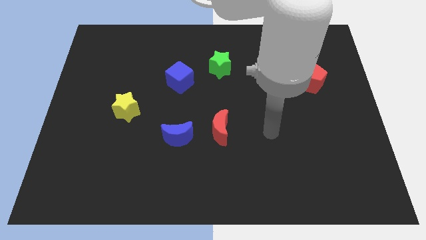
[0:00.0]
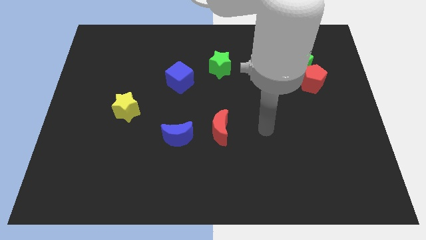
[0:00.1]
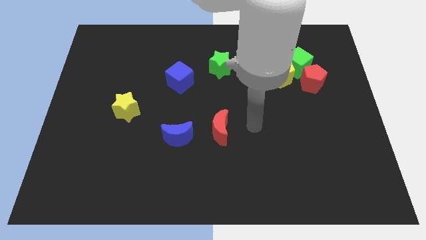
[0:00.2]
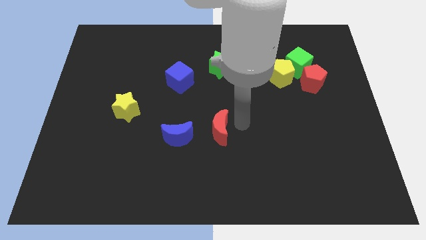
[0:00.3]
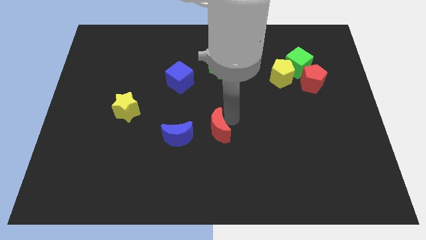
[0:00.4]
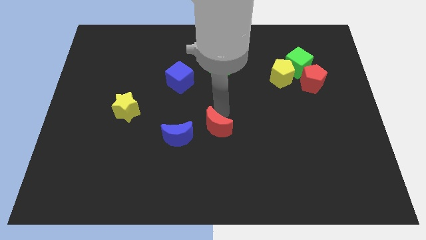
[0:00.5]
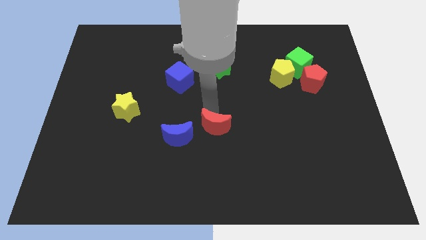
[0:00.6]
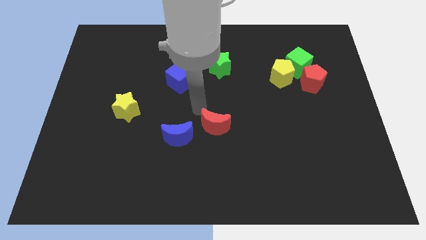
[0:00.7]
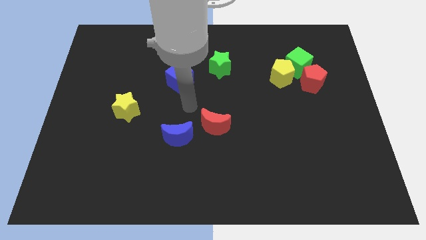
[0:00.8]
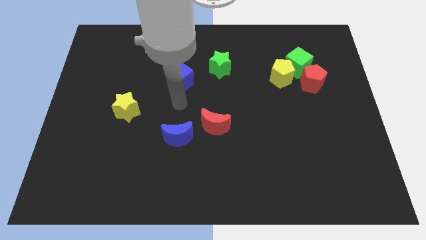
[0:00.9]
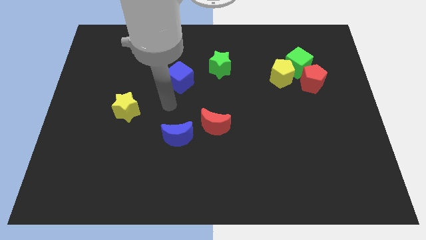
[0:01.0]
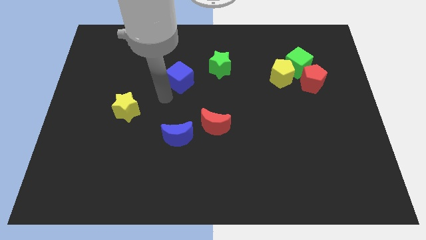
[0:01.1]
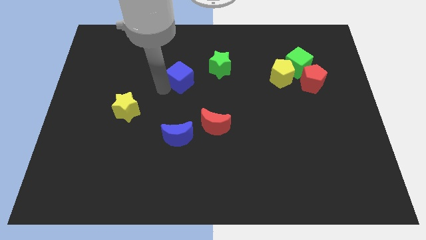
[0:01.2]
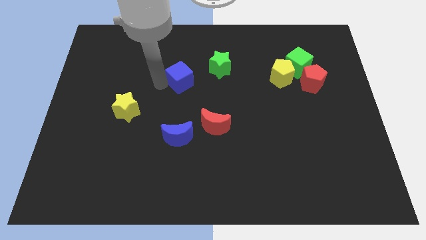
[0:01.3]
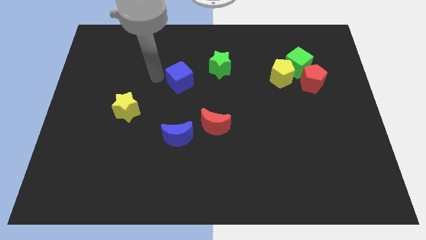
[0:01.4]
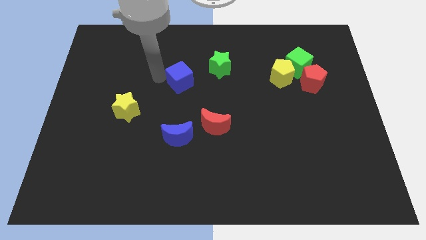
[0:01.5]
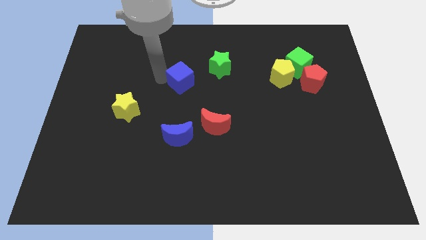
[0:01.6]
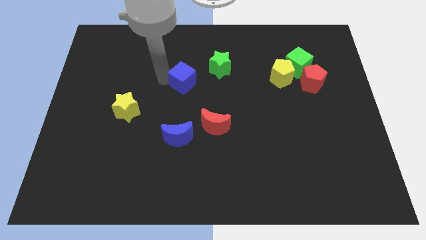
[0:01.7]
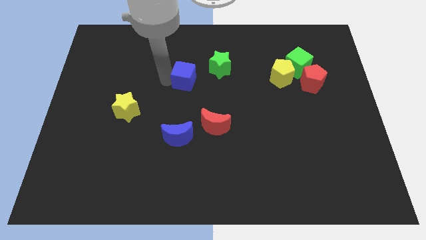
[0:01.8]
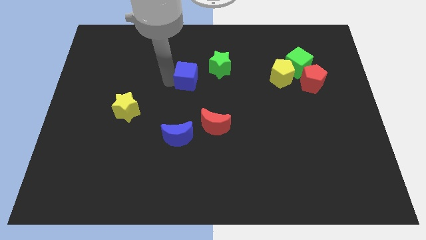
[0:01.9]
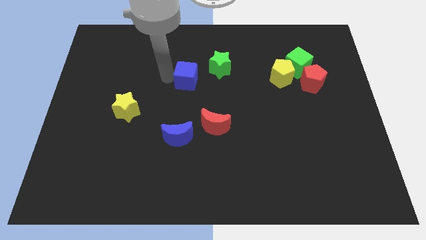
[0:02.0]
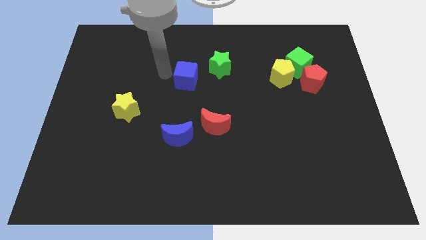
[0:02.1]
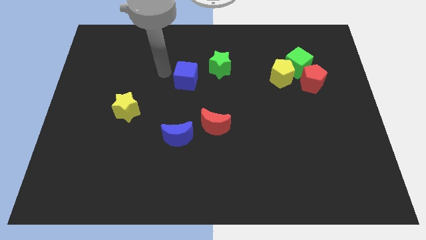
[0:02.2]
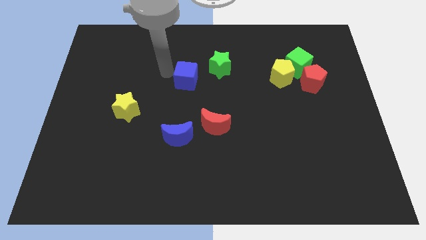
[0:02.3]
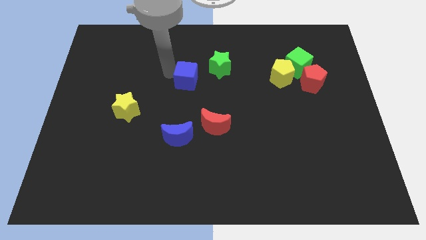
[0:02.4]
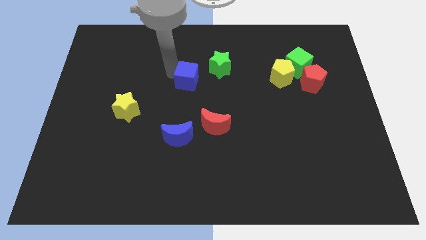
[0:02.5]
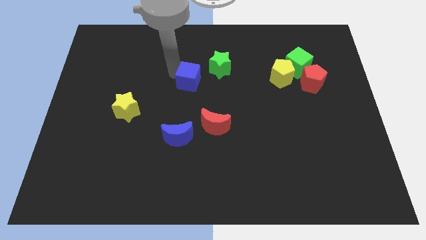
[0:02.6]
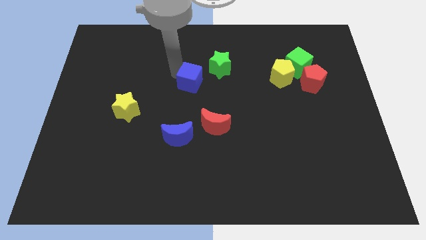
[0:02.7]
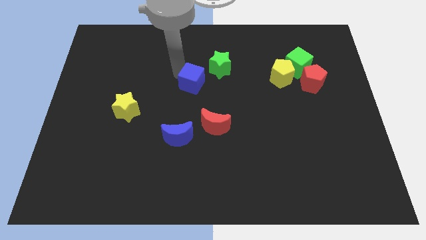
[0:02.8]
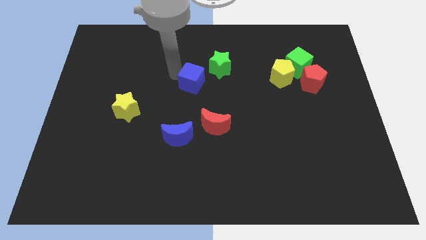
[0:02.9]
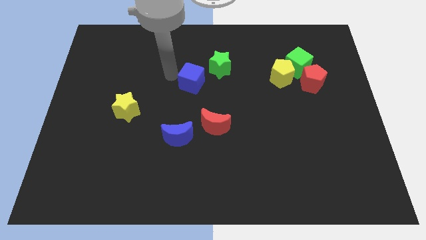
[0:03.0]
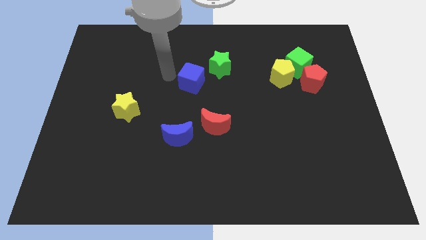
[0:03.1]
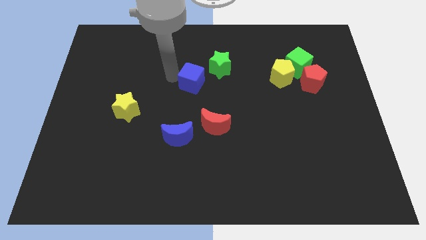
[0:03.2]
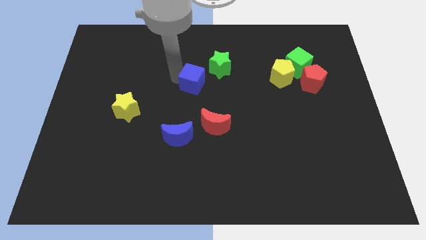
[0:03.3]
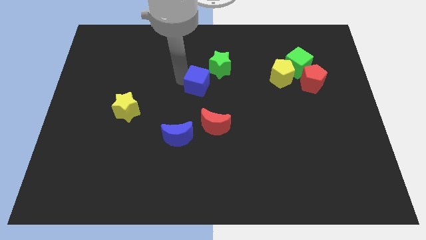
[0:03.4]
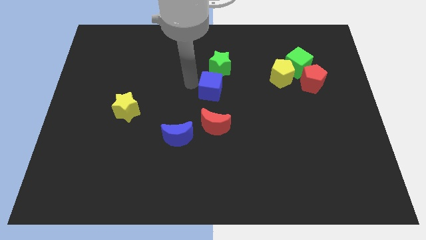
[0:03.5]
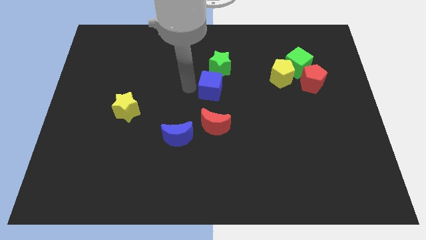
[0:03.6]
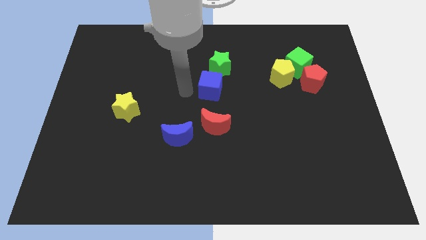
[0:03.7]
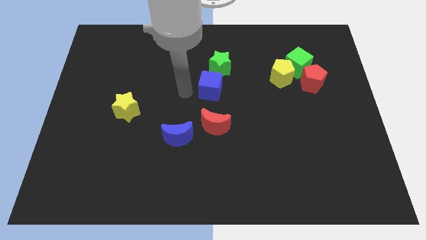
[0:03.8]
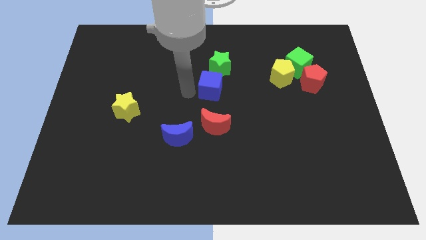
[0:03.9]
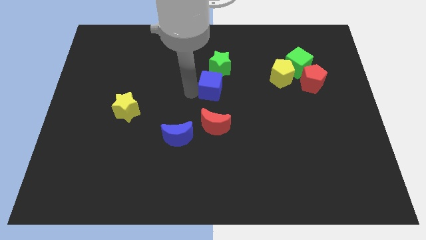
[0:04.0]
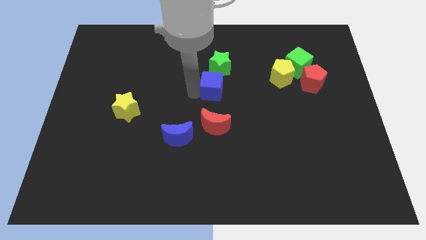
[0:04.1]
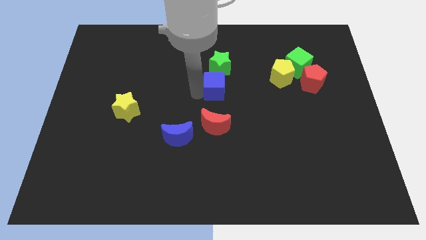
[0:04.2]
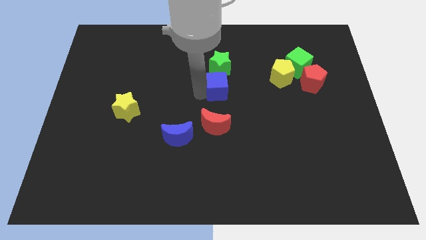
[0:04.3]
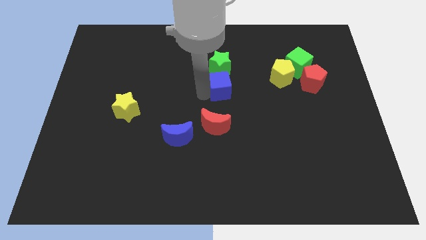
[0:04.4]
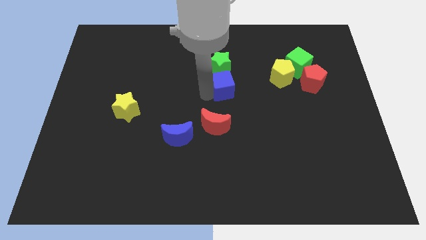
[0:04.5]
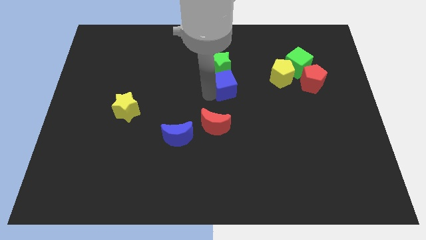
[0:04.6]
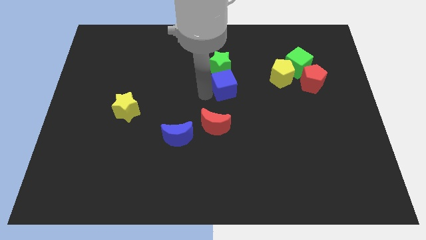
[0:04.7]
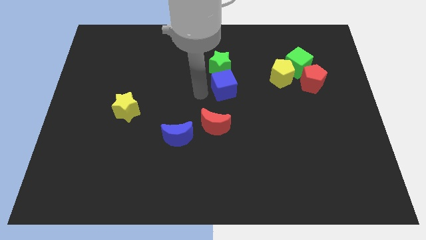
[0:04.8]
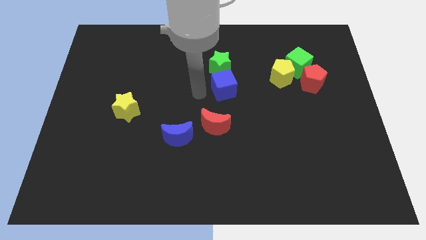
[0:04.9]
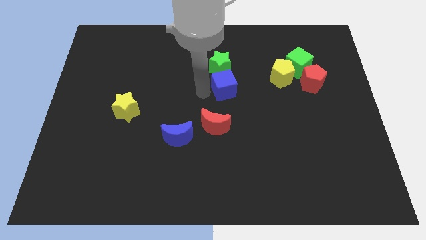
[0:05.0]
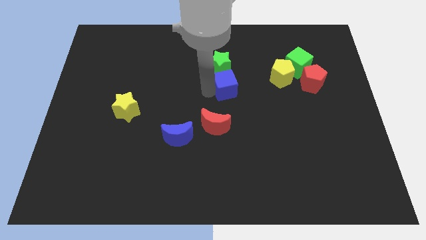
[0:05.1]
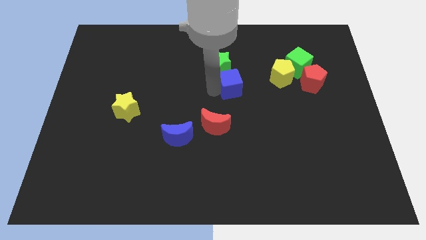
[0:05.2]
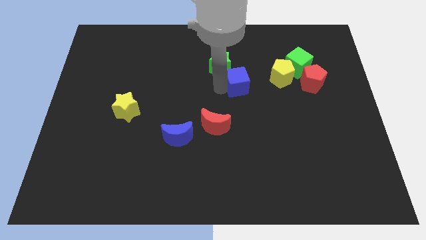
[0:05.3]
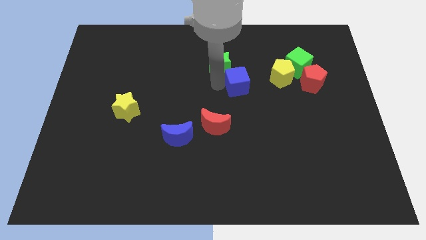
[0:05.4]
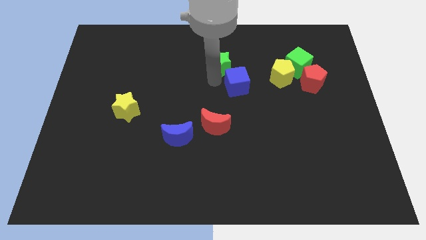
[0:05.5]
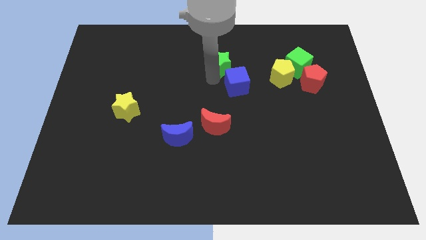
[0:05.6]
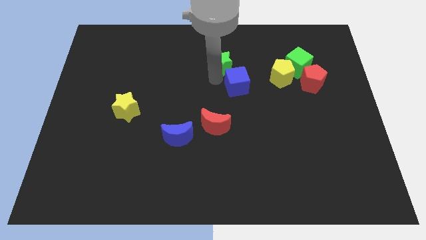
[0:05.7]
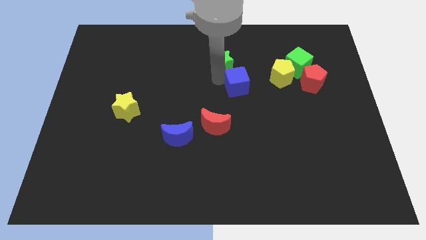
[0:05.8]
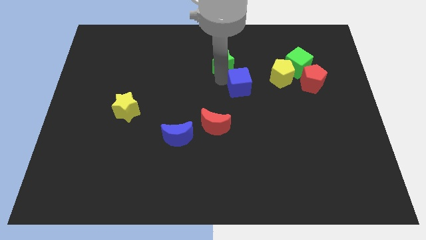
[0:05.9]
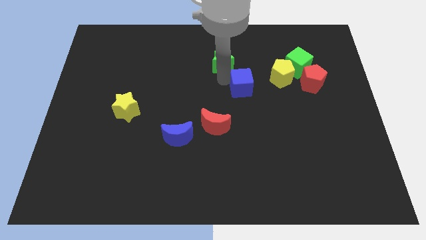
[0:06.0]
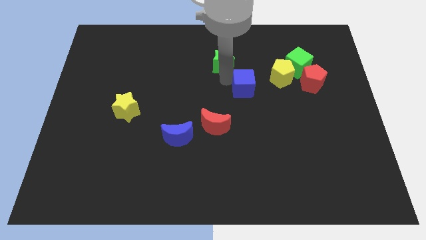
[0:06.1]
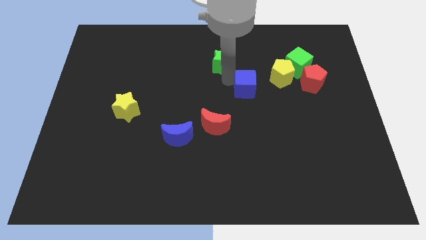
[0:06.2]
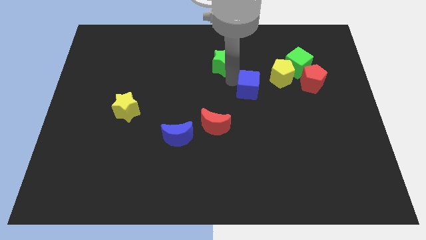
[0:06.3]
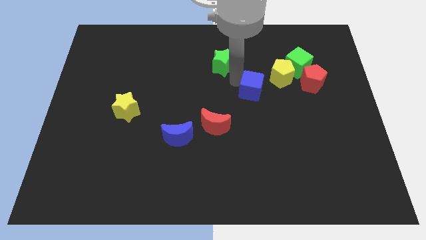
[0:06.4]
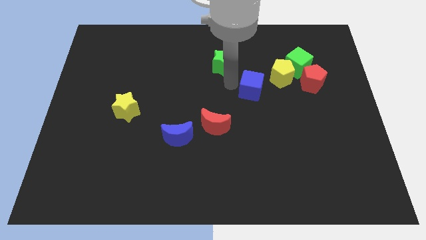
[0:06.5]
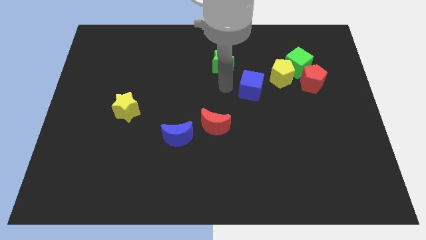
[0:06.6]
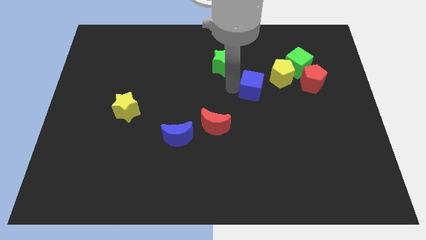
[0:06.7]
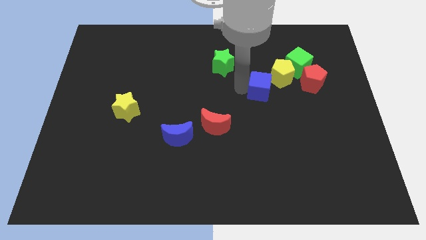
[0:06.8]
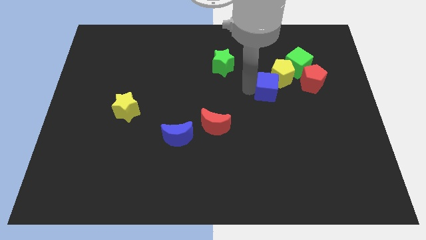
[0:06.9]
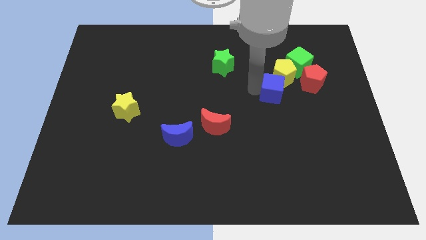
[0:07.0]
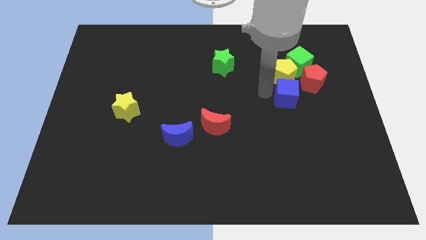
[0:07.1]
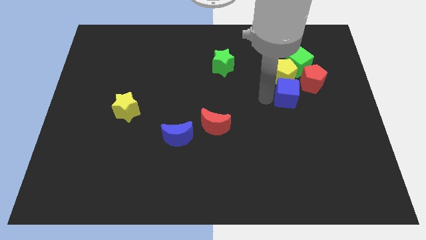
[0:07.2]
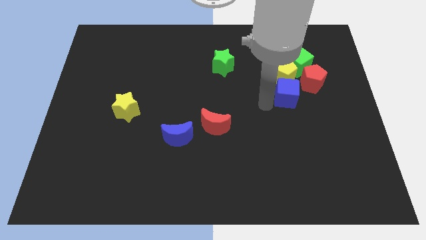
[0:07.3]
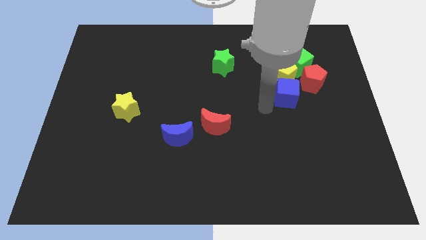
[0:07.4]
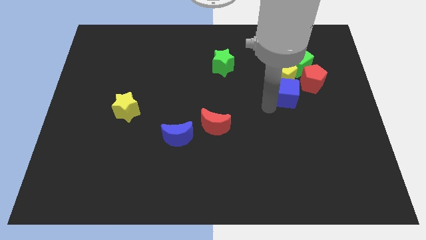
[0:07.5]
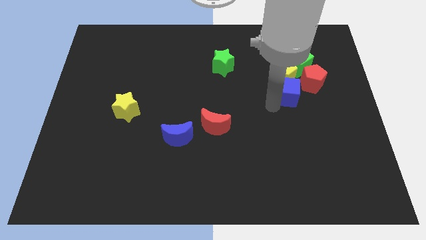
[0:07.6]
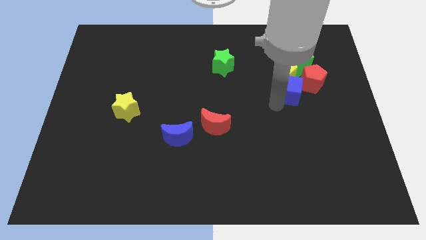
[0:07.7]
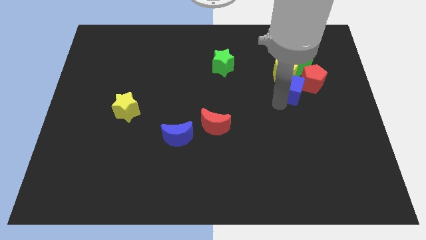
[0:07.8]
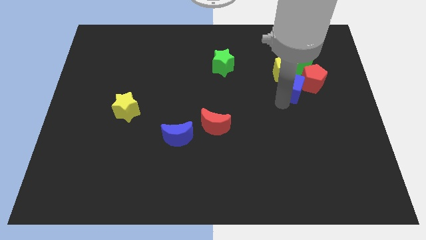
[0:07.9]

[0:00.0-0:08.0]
put the blue cube next to the red pentagon
